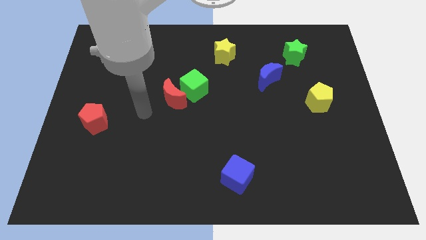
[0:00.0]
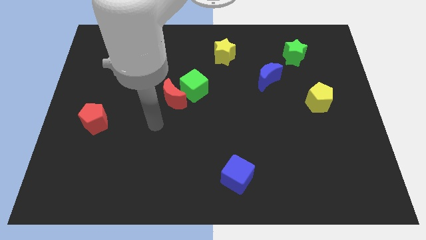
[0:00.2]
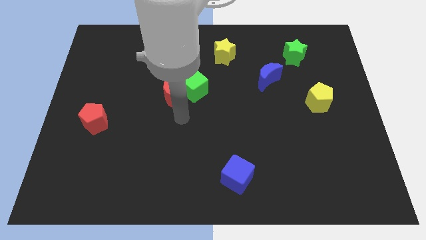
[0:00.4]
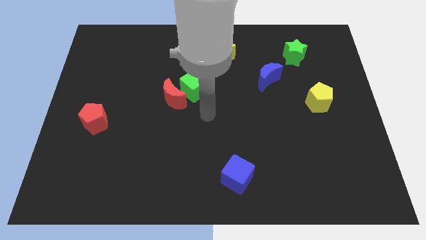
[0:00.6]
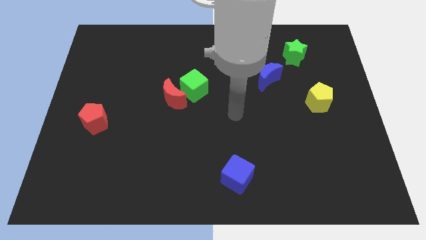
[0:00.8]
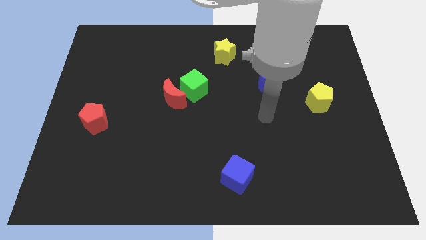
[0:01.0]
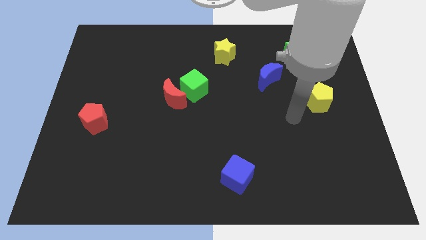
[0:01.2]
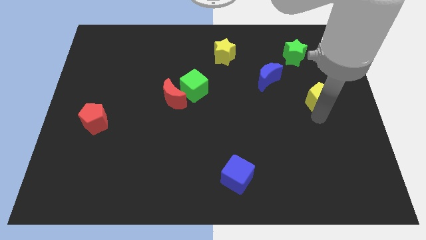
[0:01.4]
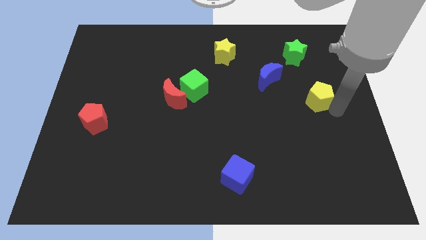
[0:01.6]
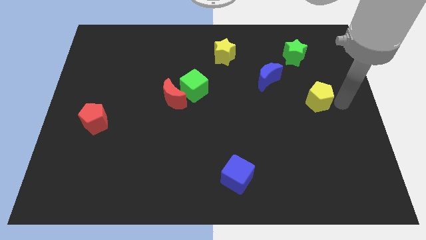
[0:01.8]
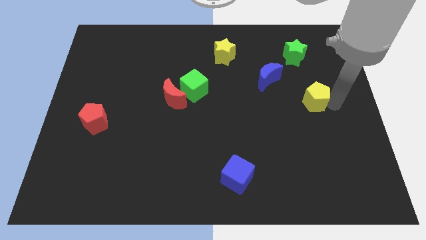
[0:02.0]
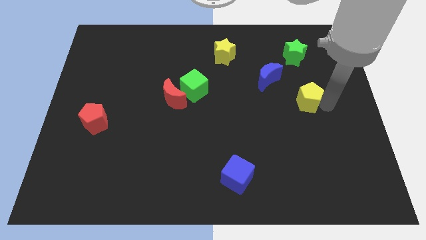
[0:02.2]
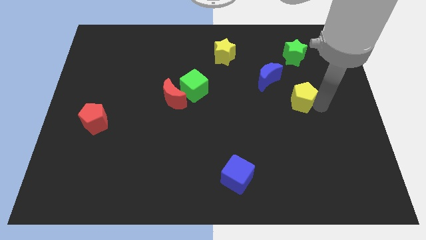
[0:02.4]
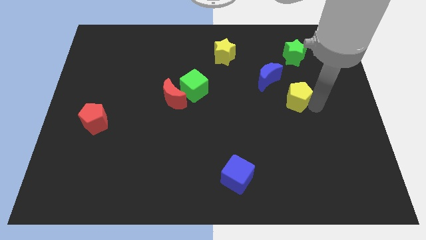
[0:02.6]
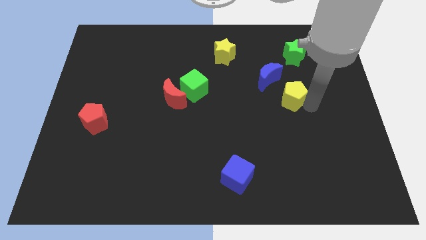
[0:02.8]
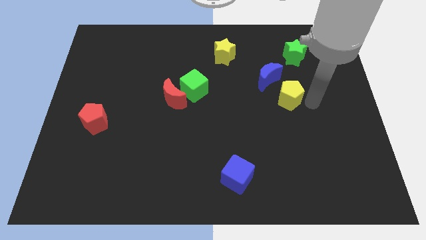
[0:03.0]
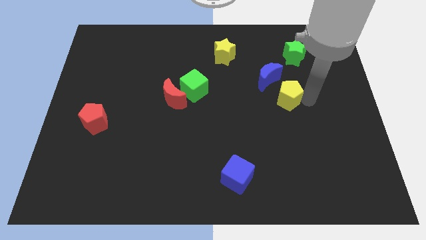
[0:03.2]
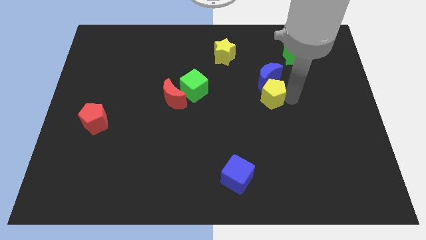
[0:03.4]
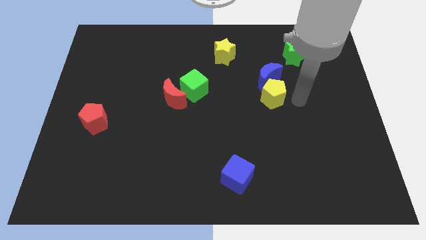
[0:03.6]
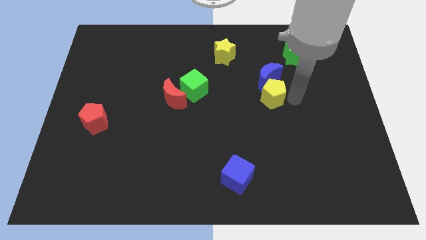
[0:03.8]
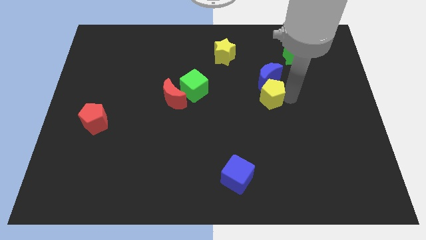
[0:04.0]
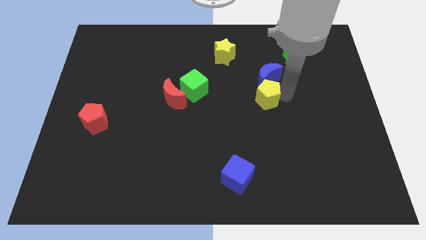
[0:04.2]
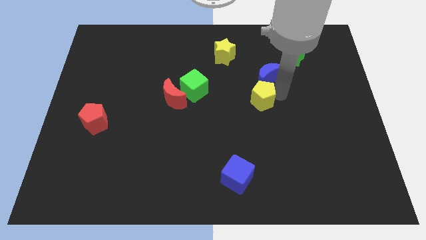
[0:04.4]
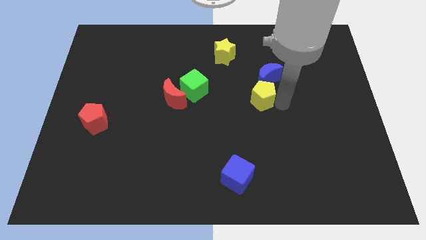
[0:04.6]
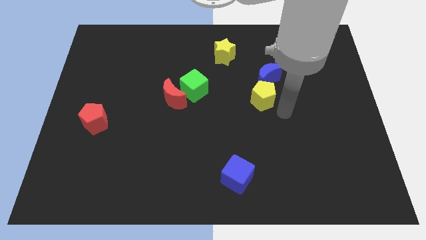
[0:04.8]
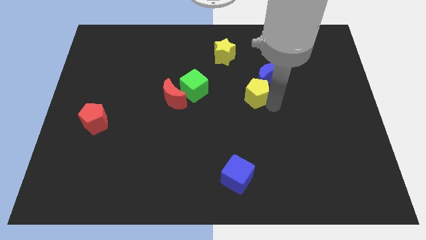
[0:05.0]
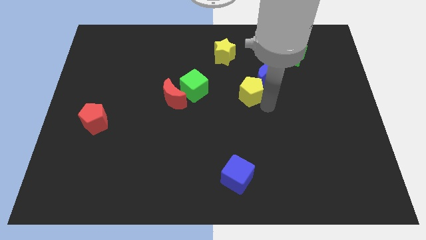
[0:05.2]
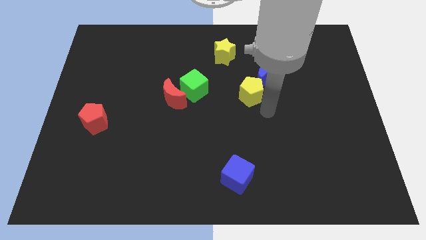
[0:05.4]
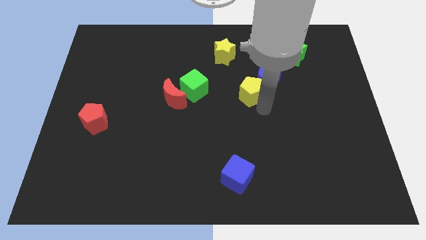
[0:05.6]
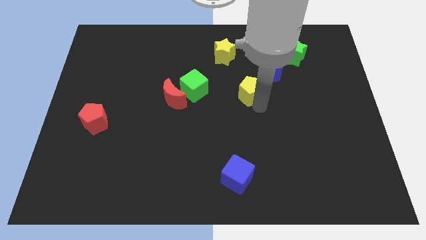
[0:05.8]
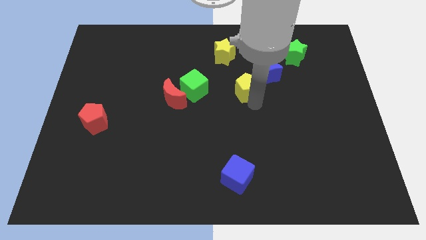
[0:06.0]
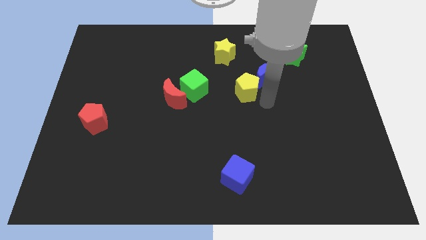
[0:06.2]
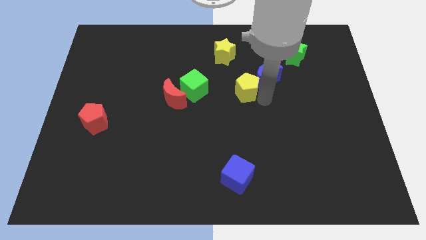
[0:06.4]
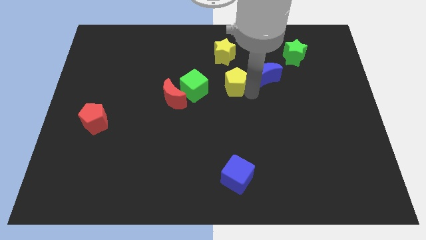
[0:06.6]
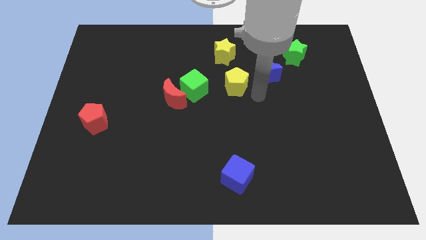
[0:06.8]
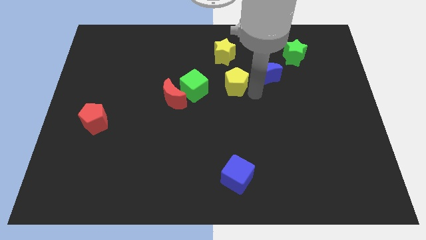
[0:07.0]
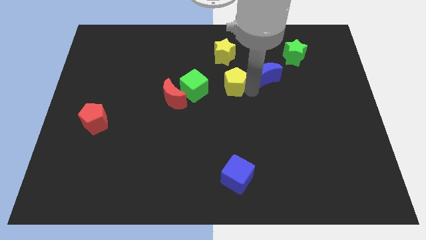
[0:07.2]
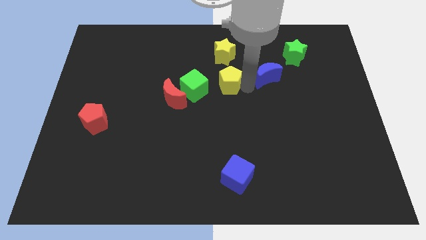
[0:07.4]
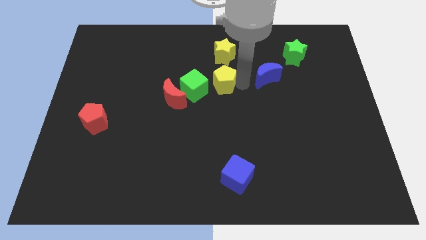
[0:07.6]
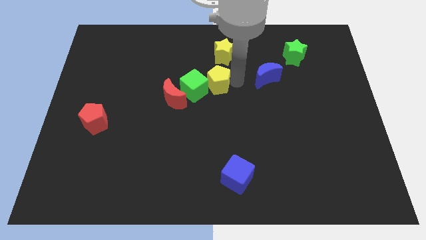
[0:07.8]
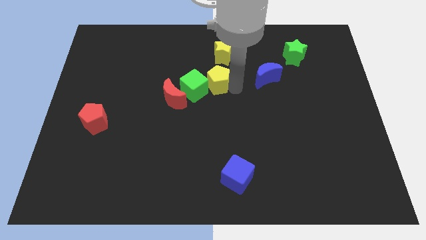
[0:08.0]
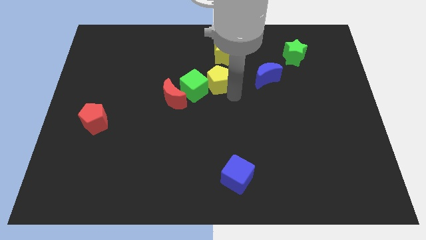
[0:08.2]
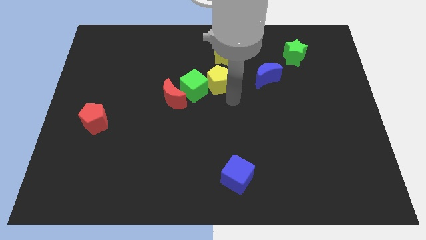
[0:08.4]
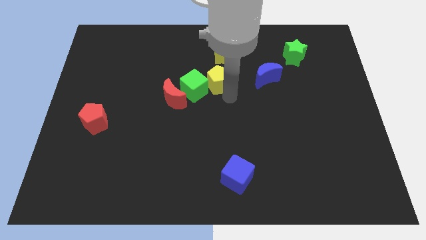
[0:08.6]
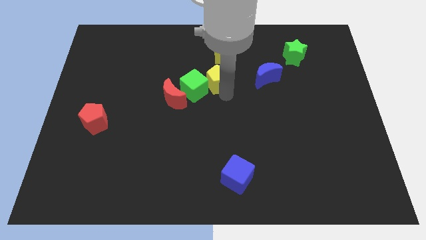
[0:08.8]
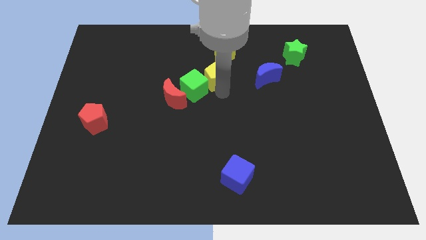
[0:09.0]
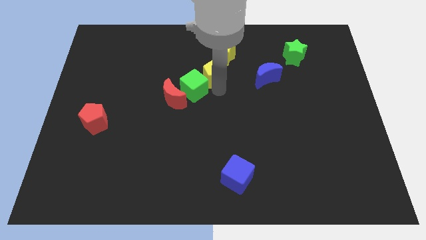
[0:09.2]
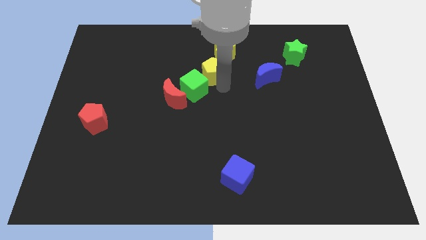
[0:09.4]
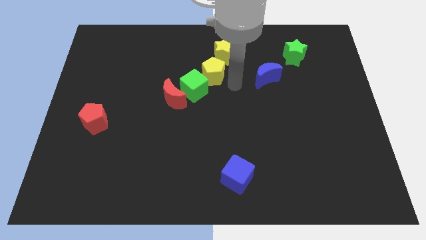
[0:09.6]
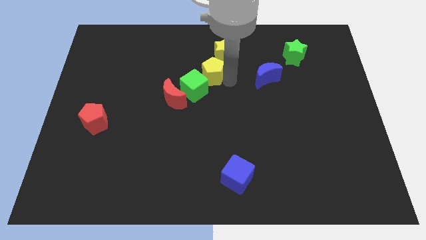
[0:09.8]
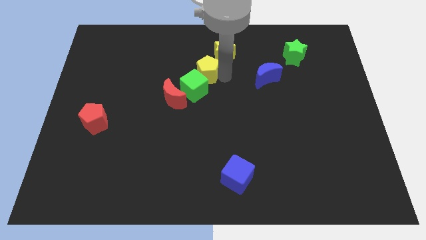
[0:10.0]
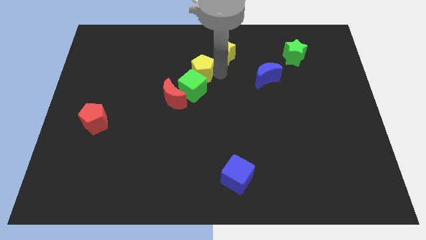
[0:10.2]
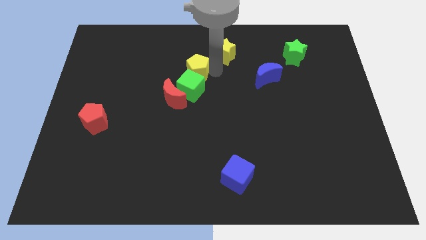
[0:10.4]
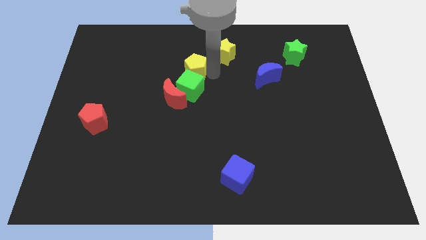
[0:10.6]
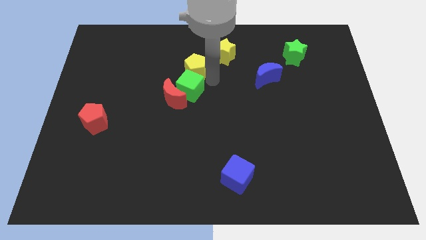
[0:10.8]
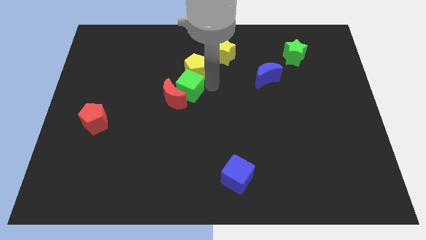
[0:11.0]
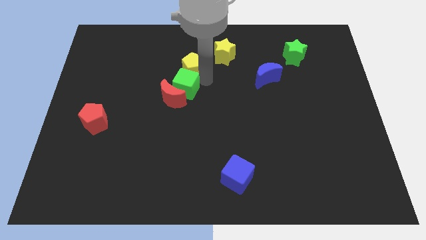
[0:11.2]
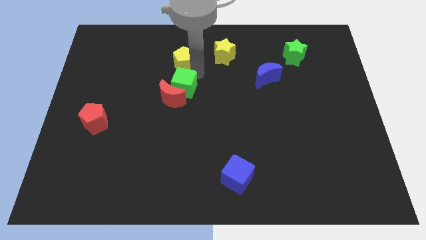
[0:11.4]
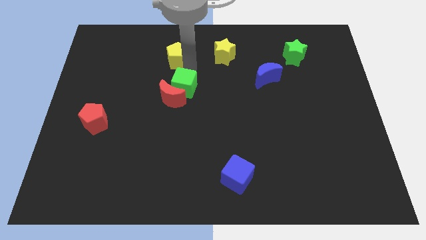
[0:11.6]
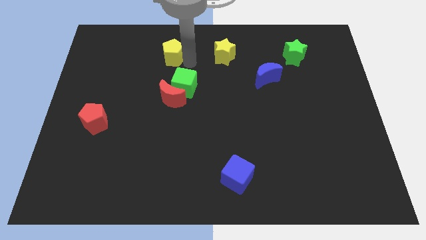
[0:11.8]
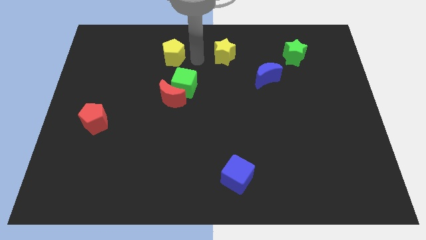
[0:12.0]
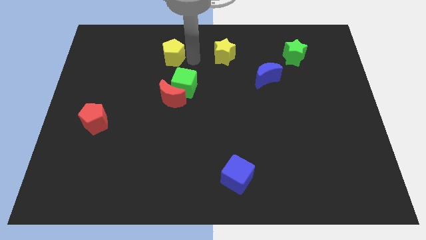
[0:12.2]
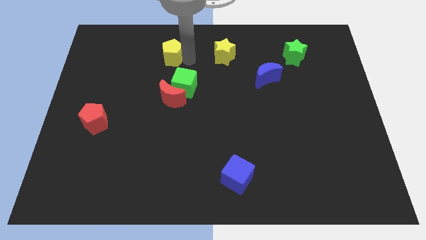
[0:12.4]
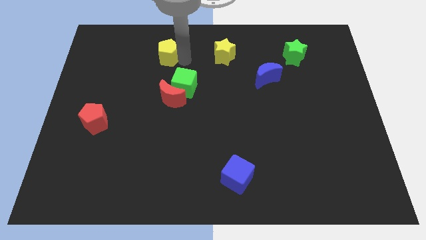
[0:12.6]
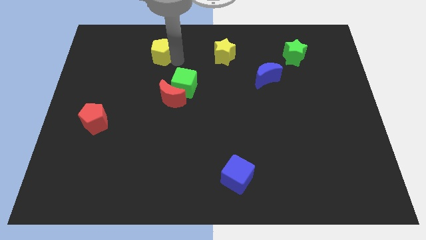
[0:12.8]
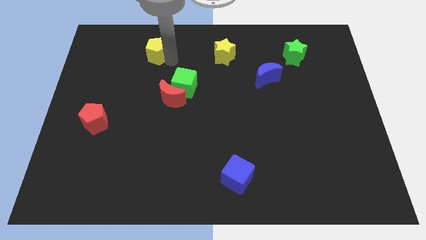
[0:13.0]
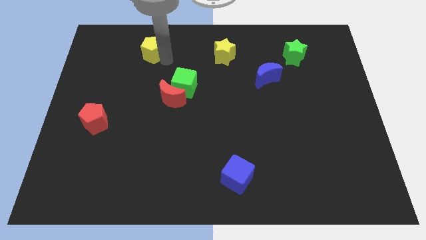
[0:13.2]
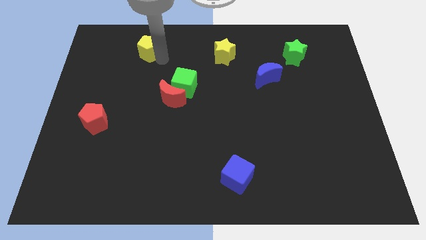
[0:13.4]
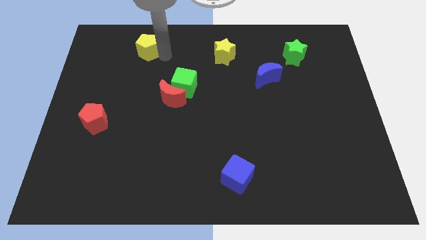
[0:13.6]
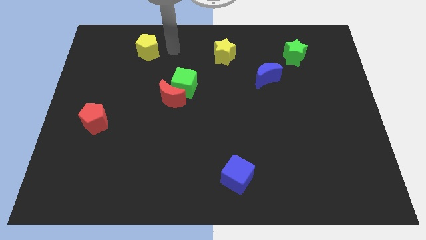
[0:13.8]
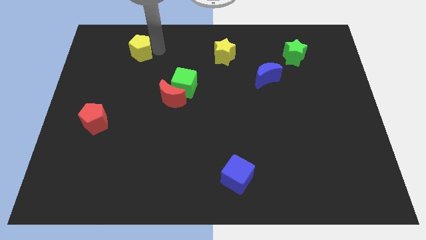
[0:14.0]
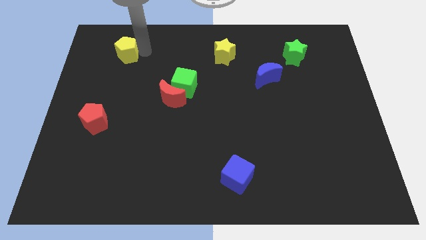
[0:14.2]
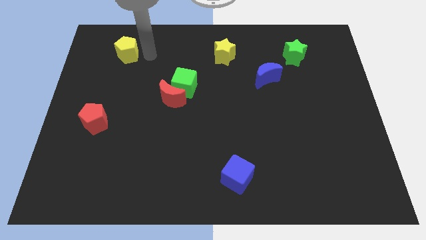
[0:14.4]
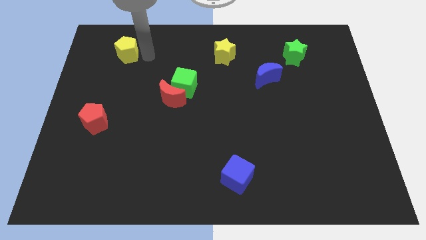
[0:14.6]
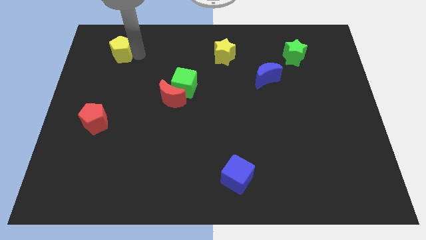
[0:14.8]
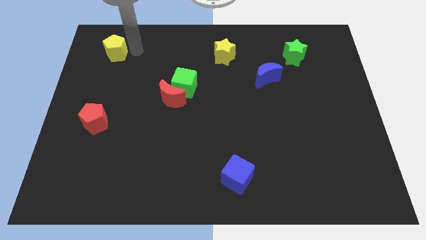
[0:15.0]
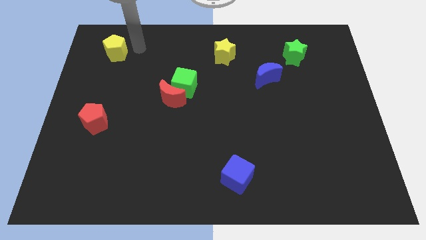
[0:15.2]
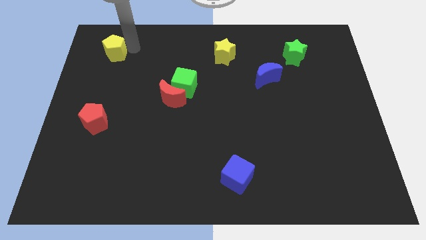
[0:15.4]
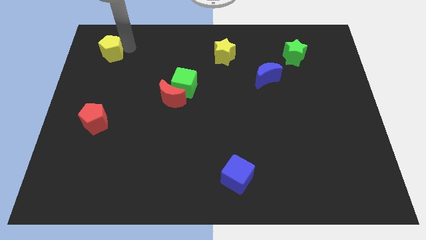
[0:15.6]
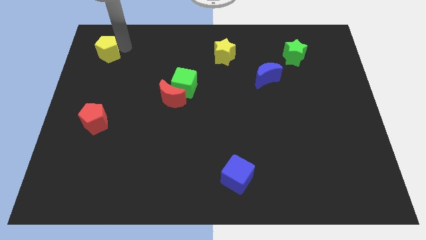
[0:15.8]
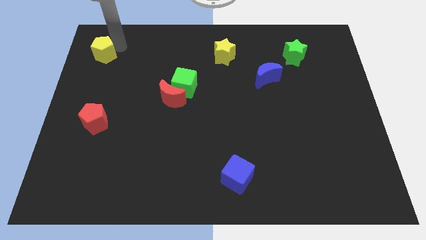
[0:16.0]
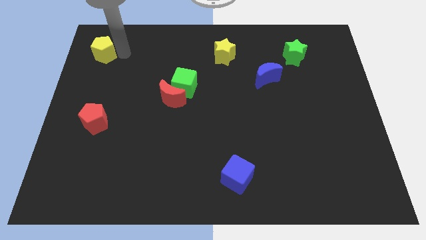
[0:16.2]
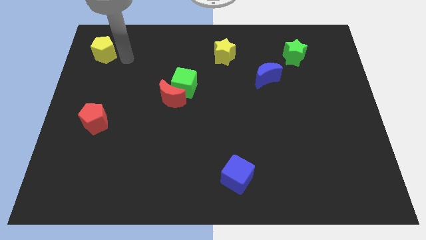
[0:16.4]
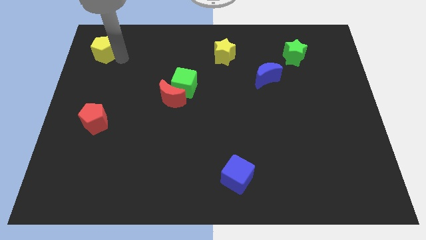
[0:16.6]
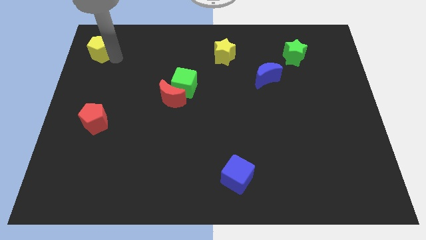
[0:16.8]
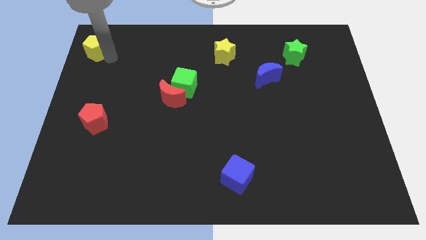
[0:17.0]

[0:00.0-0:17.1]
slide the yellow pentagon to the top left corner
